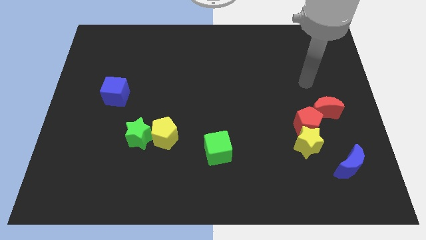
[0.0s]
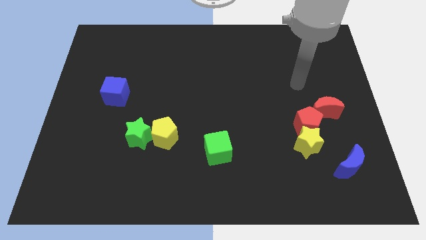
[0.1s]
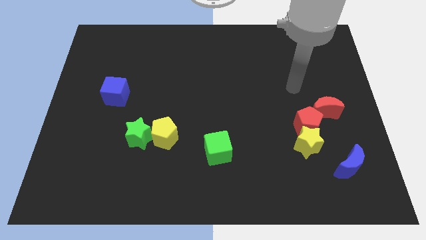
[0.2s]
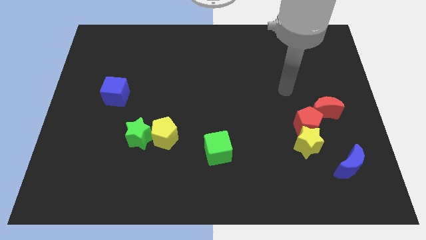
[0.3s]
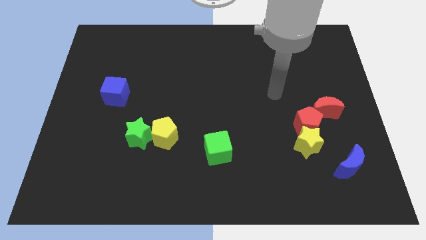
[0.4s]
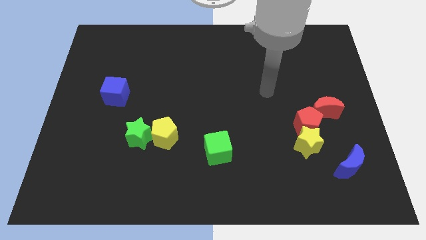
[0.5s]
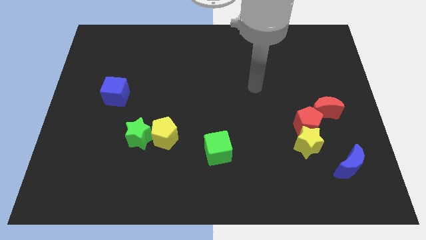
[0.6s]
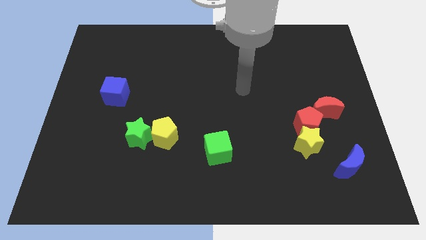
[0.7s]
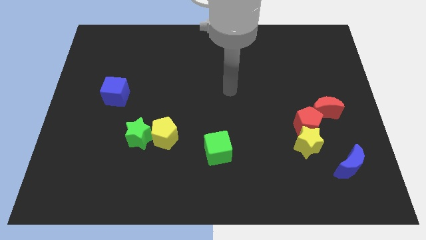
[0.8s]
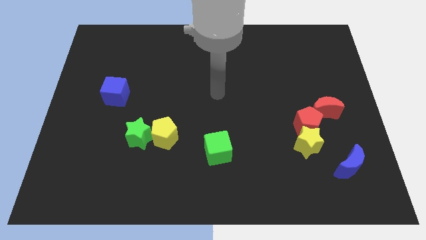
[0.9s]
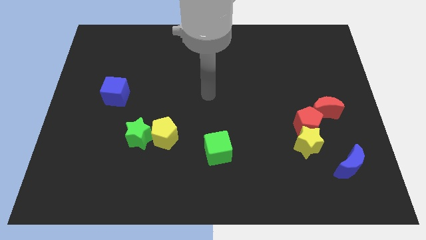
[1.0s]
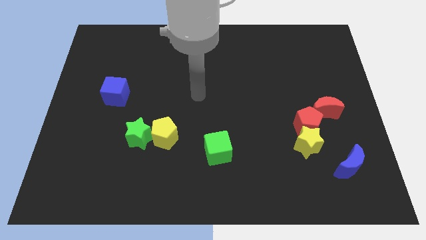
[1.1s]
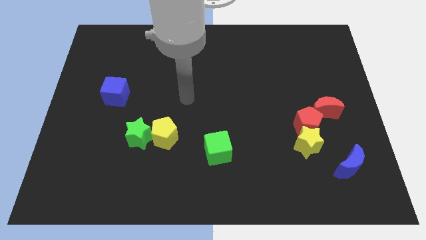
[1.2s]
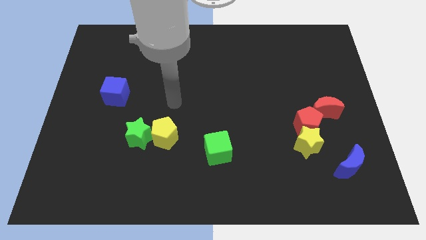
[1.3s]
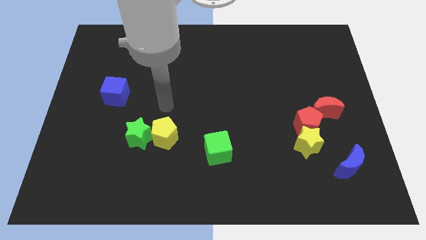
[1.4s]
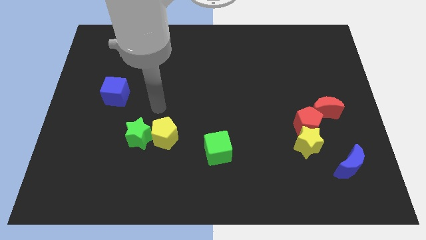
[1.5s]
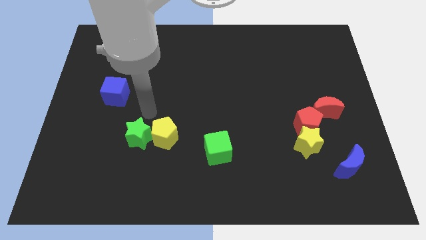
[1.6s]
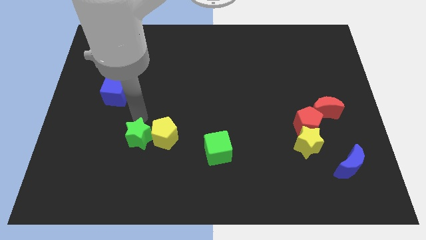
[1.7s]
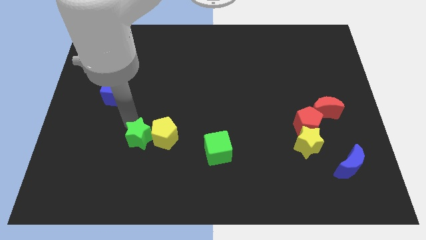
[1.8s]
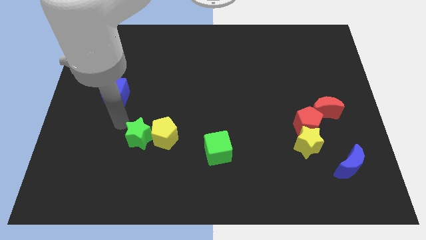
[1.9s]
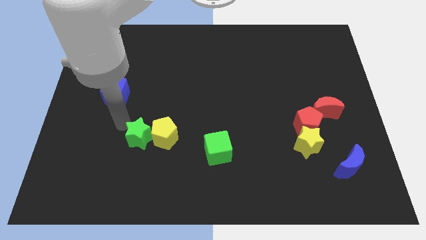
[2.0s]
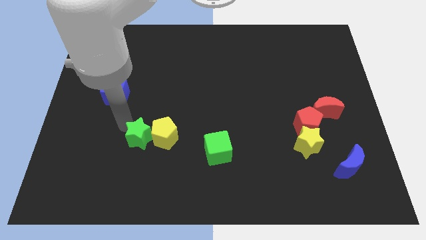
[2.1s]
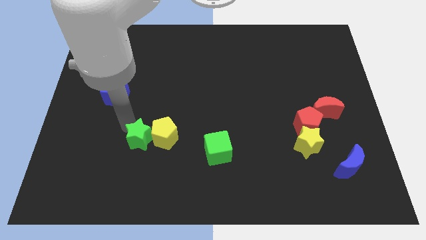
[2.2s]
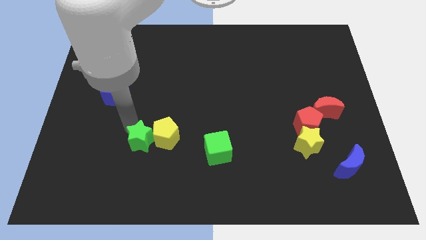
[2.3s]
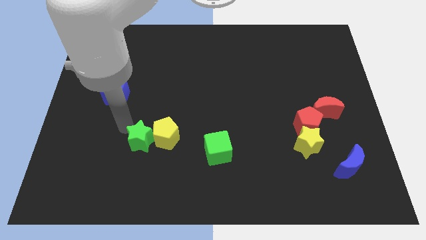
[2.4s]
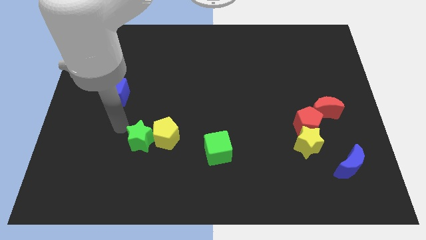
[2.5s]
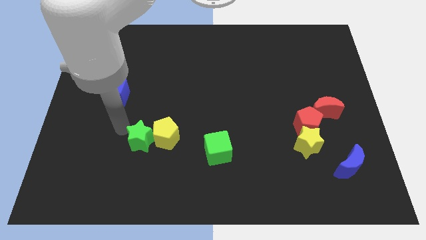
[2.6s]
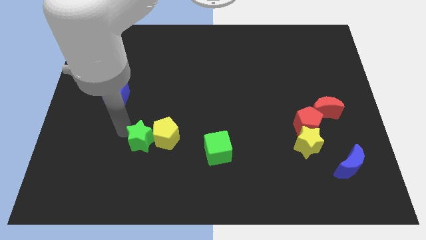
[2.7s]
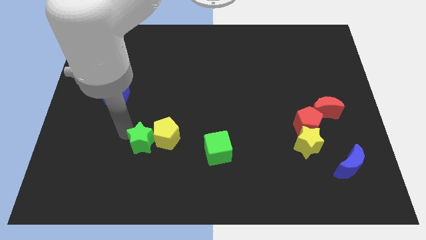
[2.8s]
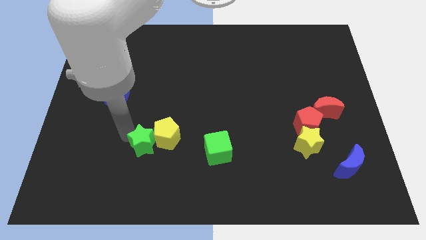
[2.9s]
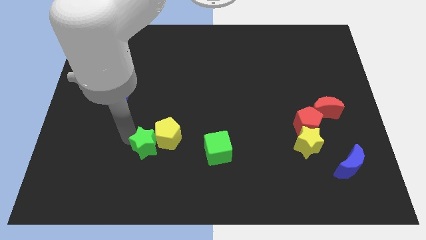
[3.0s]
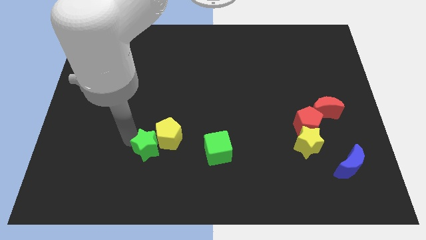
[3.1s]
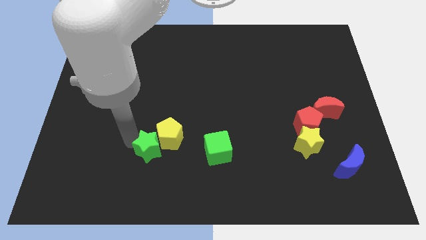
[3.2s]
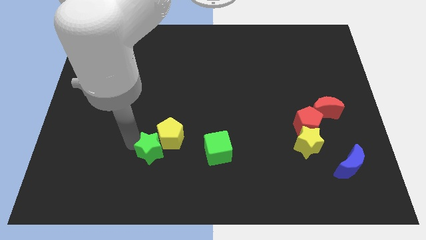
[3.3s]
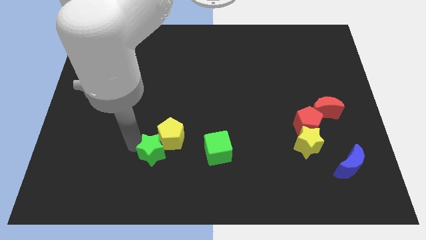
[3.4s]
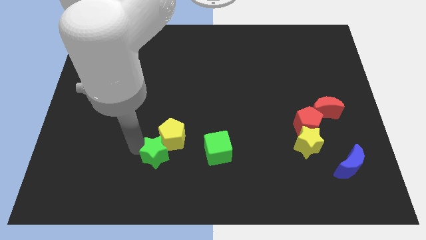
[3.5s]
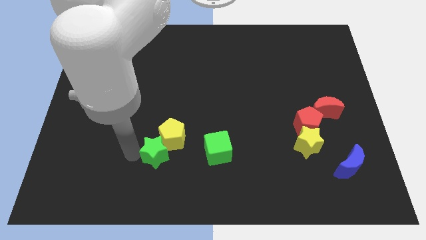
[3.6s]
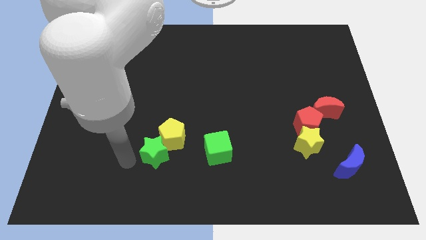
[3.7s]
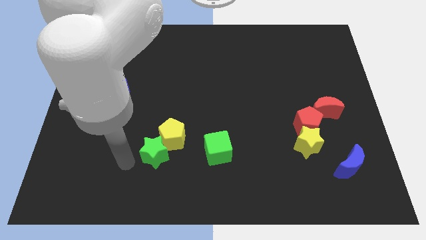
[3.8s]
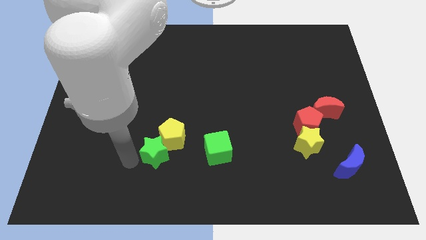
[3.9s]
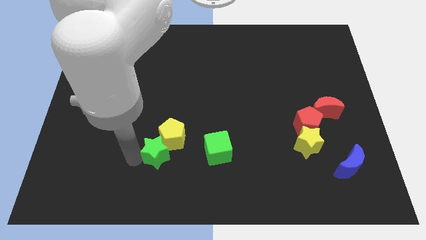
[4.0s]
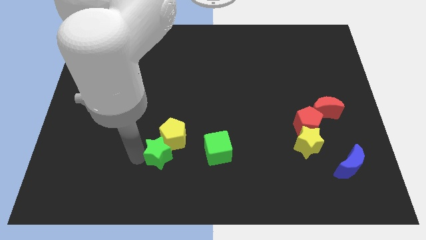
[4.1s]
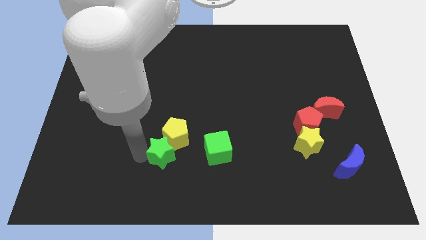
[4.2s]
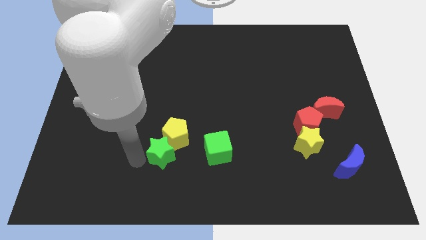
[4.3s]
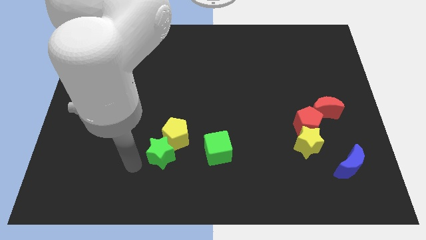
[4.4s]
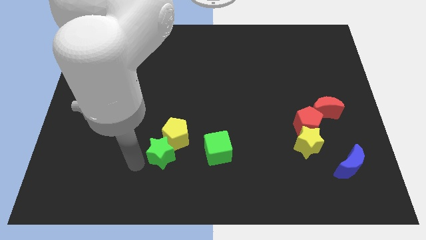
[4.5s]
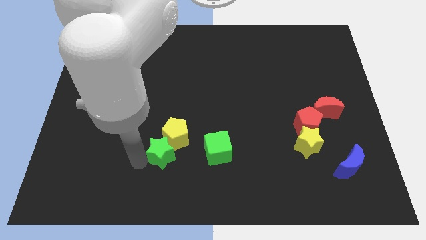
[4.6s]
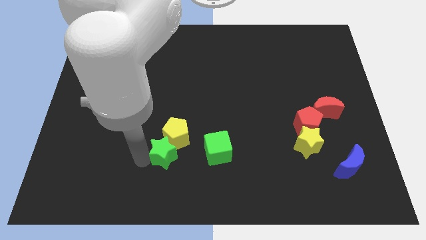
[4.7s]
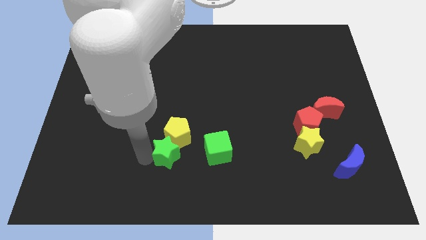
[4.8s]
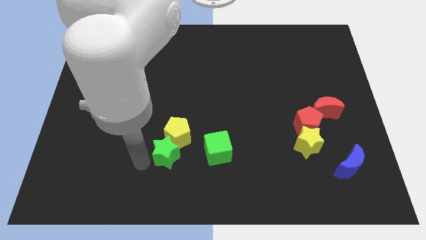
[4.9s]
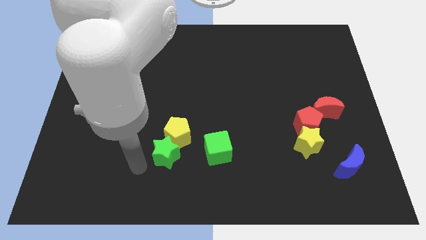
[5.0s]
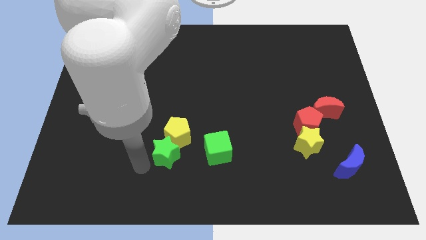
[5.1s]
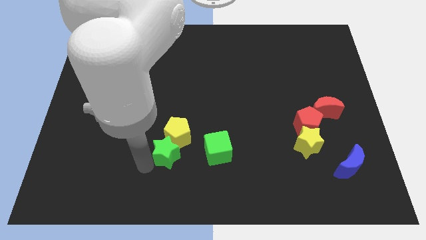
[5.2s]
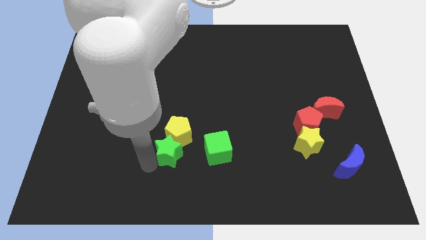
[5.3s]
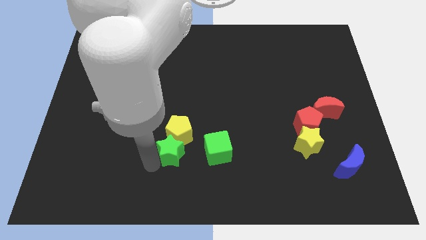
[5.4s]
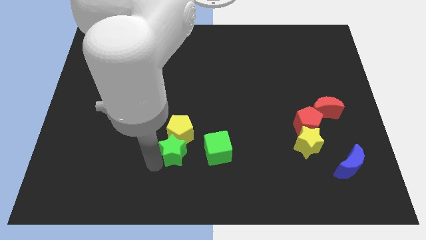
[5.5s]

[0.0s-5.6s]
push the green star to the right slightly

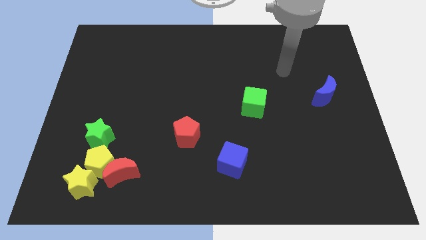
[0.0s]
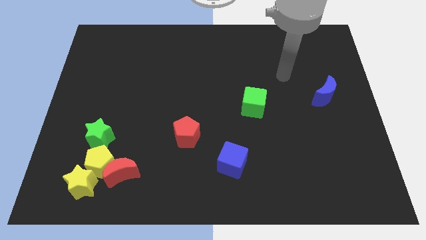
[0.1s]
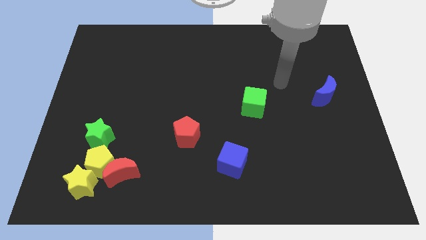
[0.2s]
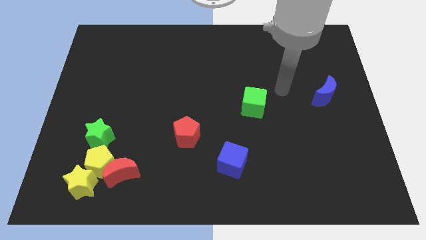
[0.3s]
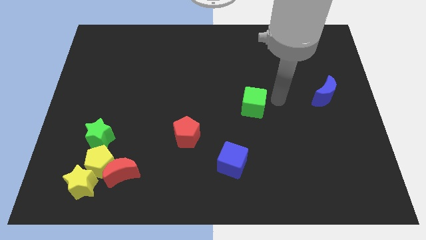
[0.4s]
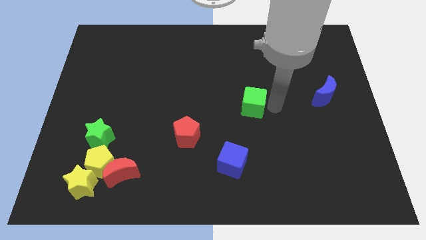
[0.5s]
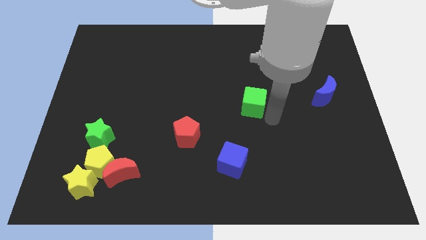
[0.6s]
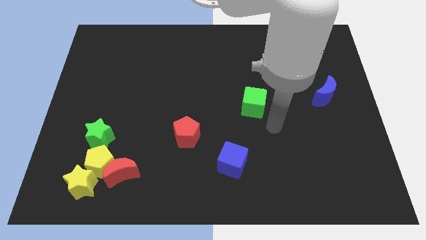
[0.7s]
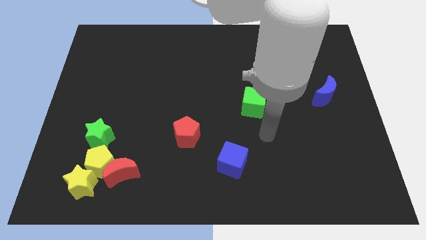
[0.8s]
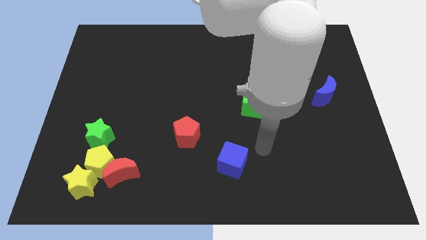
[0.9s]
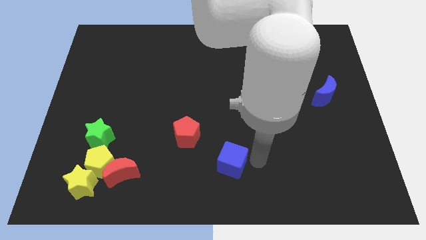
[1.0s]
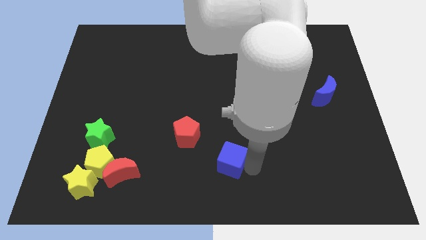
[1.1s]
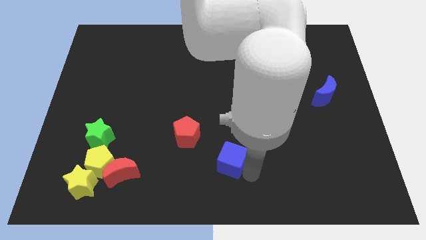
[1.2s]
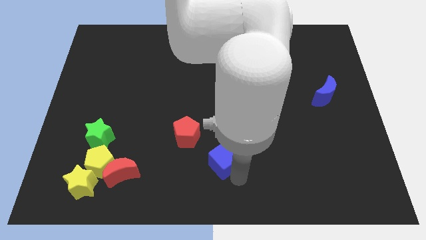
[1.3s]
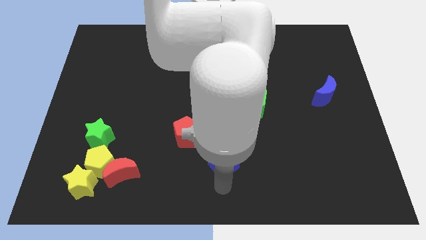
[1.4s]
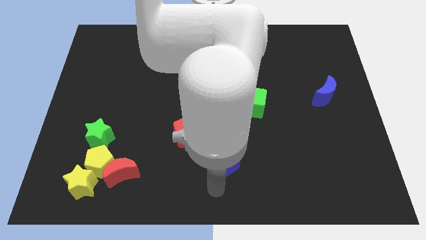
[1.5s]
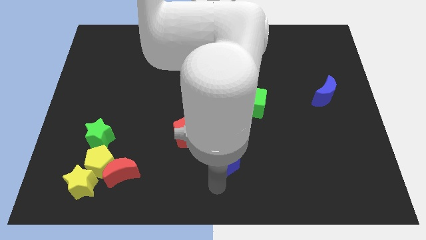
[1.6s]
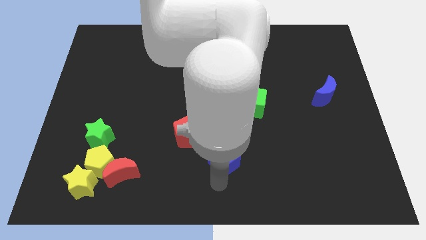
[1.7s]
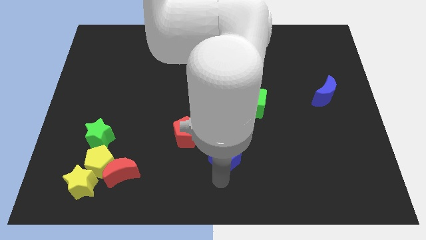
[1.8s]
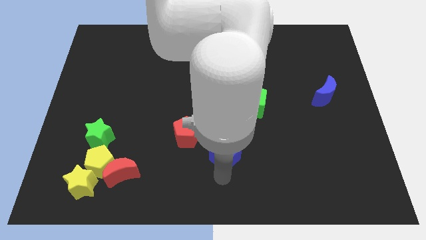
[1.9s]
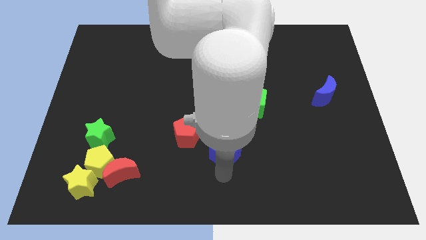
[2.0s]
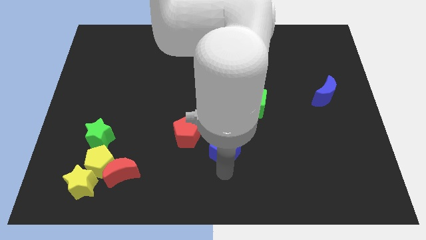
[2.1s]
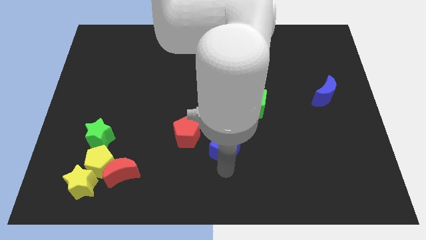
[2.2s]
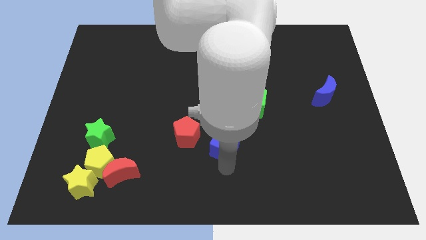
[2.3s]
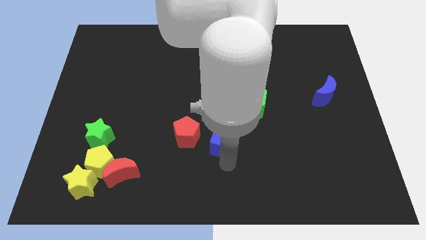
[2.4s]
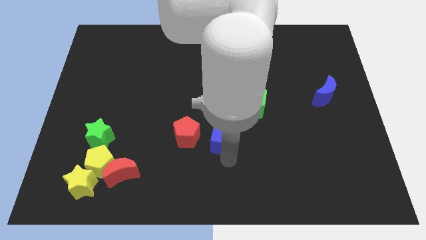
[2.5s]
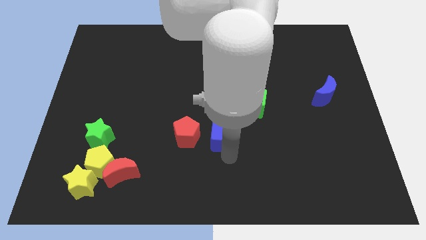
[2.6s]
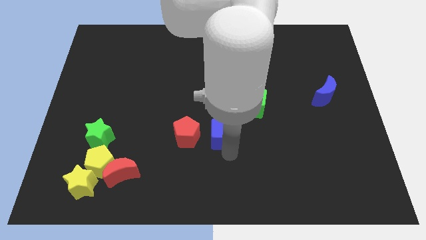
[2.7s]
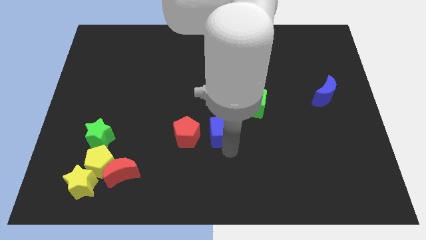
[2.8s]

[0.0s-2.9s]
move the blue cube slightly upwards
